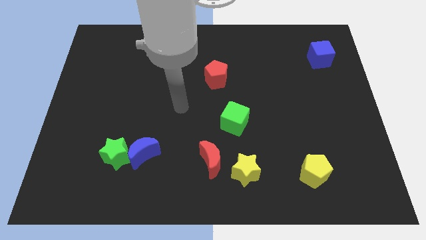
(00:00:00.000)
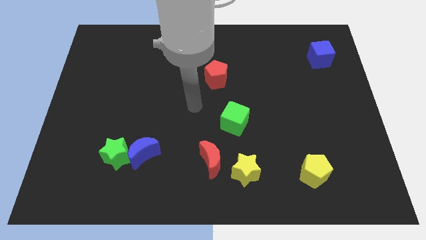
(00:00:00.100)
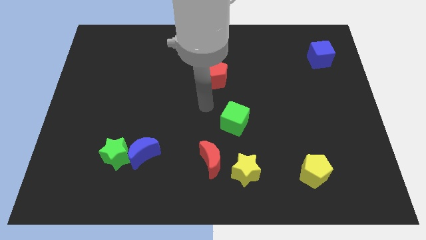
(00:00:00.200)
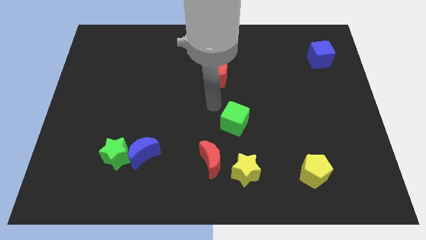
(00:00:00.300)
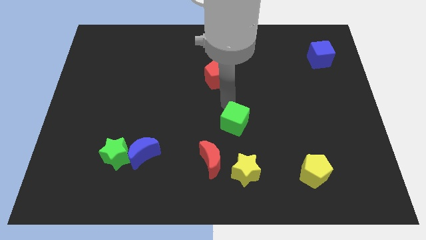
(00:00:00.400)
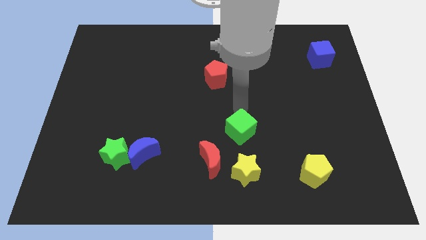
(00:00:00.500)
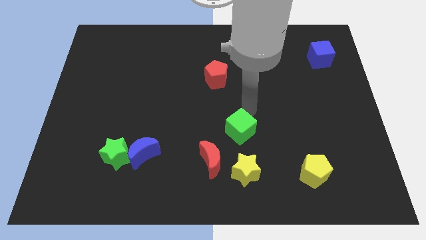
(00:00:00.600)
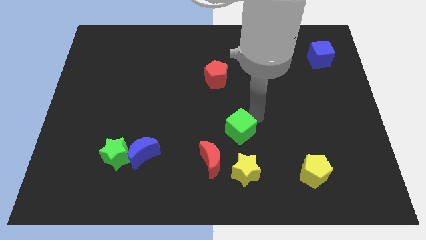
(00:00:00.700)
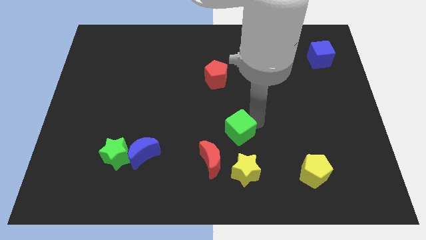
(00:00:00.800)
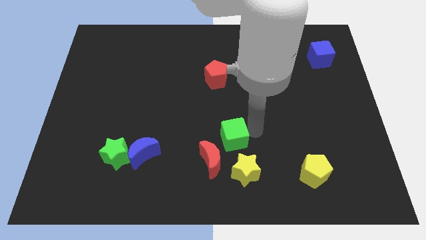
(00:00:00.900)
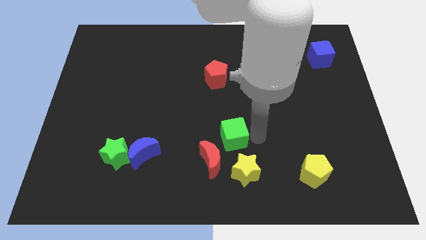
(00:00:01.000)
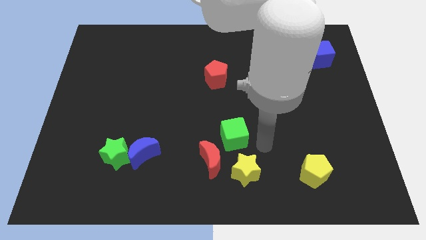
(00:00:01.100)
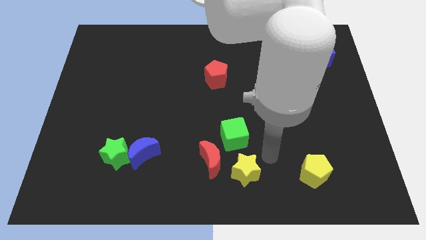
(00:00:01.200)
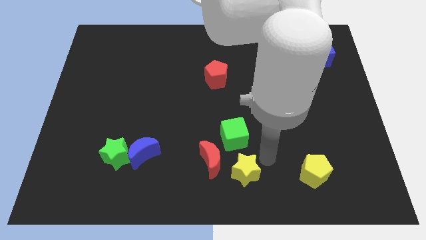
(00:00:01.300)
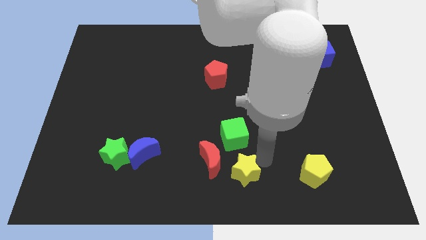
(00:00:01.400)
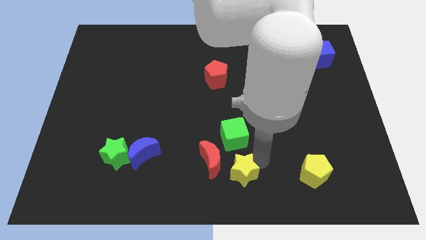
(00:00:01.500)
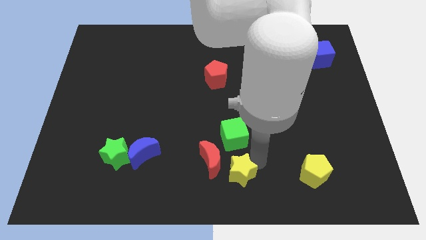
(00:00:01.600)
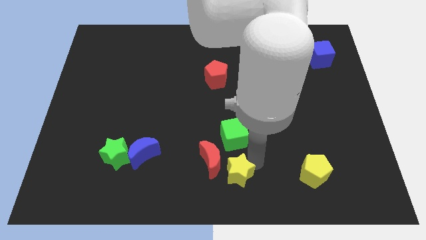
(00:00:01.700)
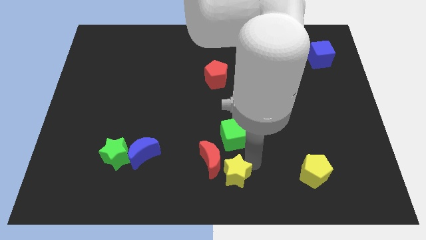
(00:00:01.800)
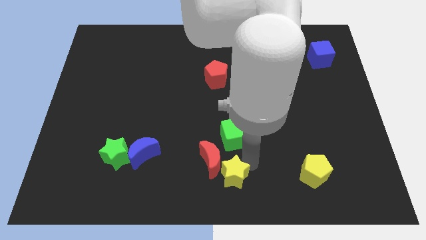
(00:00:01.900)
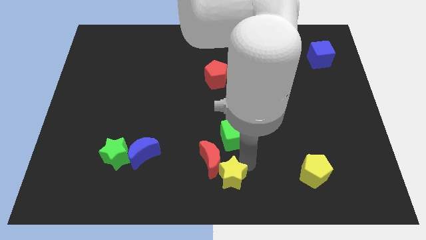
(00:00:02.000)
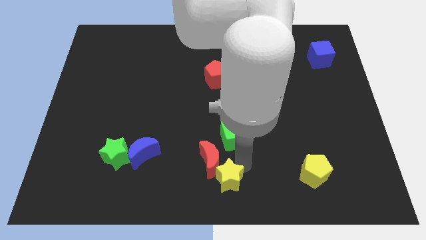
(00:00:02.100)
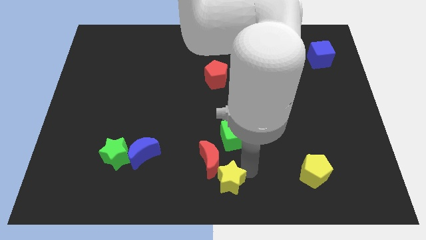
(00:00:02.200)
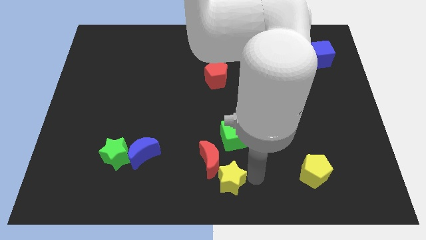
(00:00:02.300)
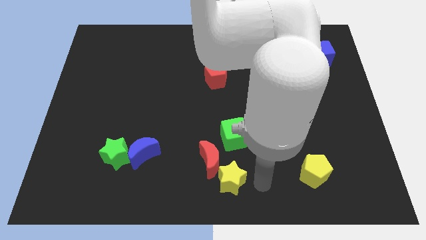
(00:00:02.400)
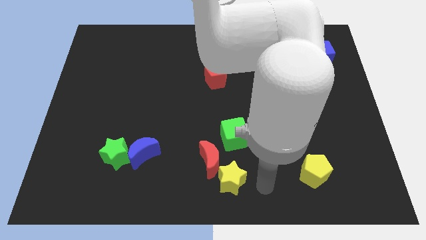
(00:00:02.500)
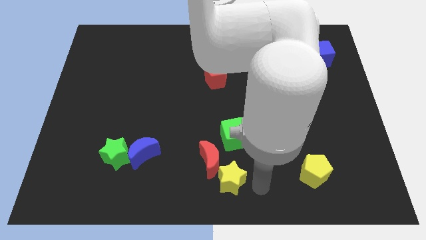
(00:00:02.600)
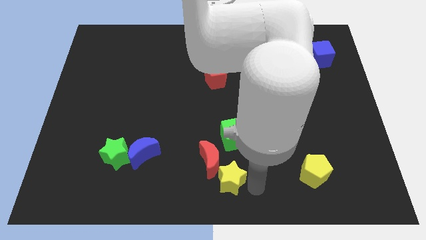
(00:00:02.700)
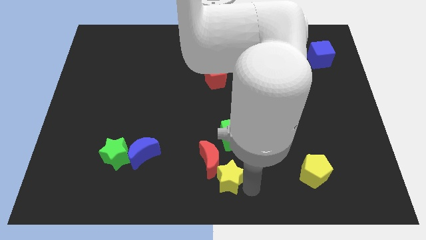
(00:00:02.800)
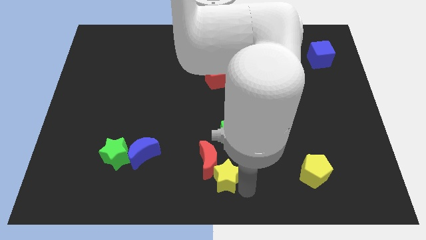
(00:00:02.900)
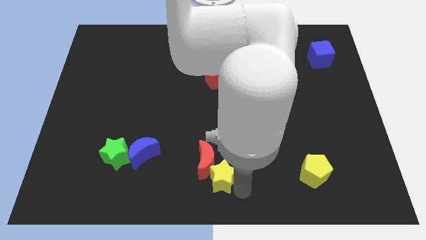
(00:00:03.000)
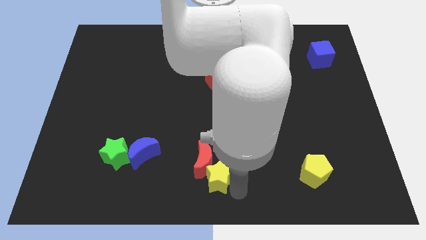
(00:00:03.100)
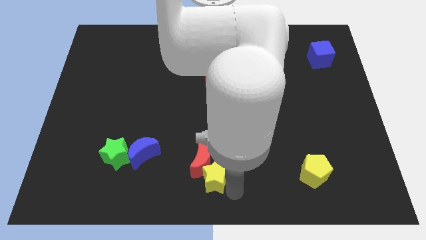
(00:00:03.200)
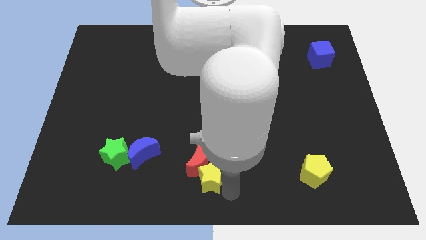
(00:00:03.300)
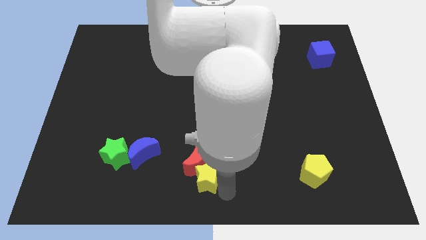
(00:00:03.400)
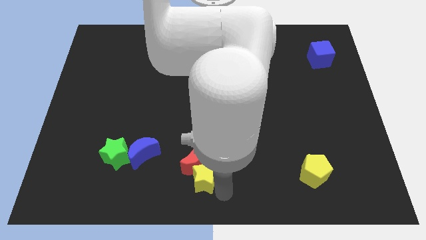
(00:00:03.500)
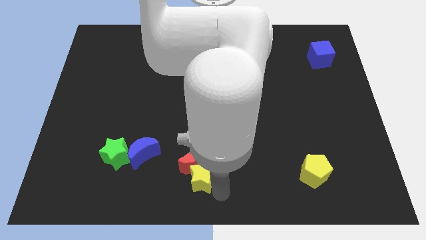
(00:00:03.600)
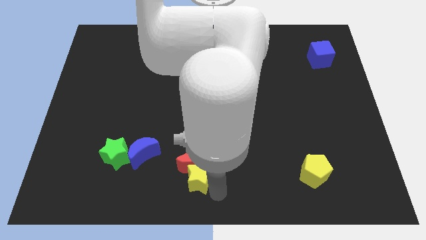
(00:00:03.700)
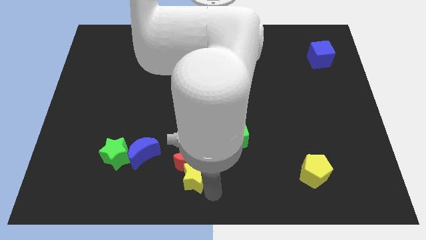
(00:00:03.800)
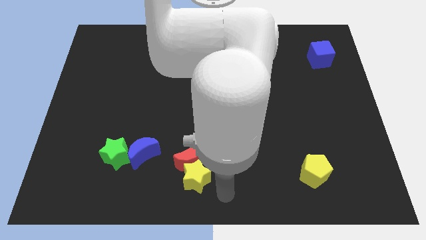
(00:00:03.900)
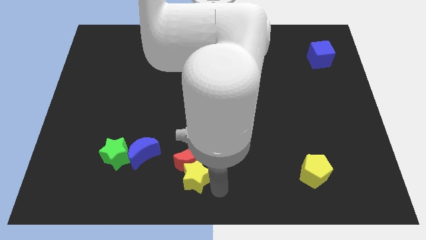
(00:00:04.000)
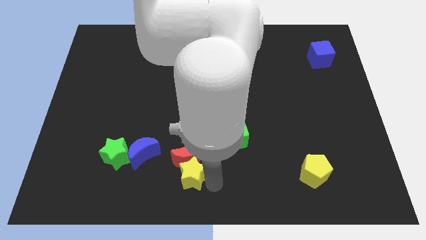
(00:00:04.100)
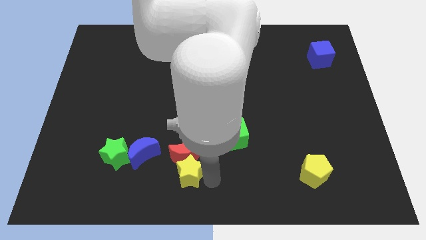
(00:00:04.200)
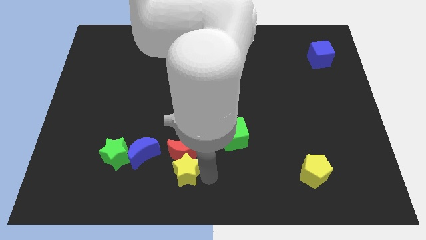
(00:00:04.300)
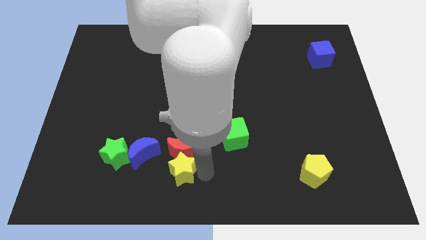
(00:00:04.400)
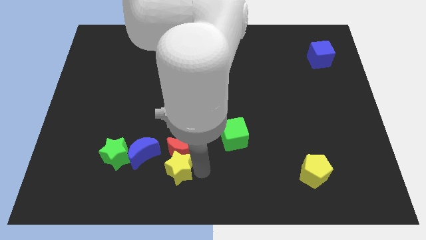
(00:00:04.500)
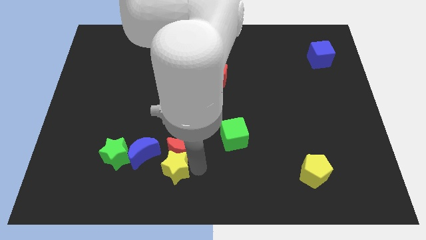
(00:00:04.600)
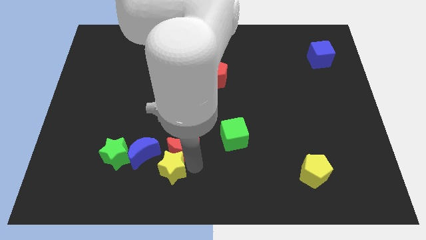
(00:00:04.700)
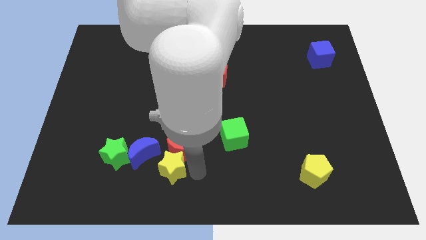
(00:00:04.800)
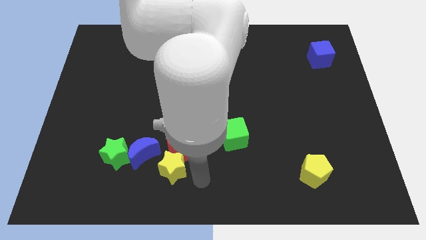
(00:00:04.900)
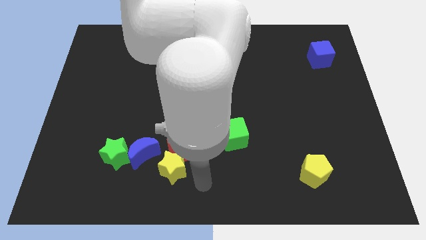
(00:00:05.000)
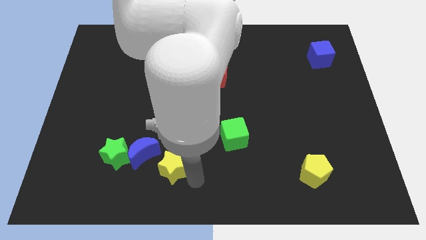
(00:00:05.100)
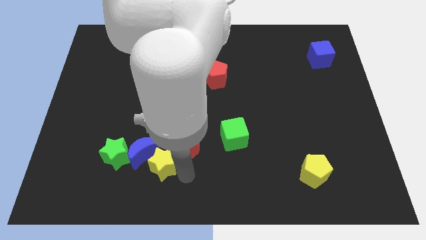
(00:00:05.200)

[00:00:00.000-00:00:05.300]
put the yellow star next to the blue moon

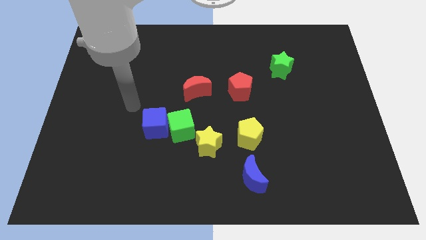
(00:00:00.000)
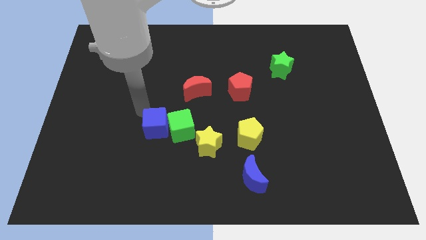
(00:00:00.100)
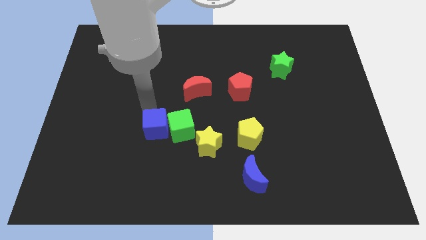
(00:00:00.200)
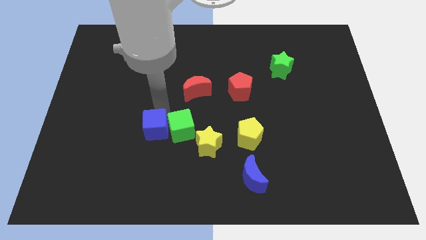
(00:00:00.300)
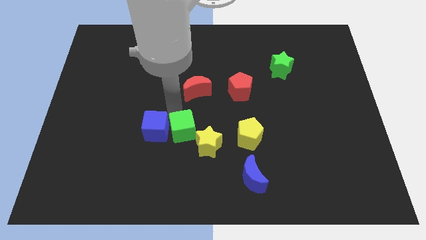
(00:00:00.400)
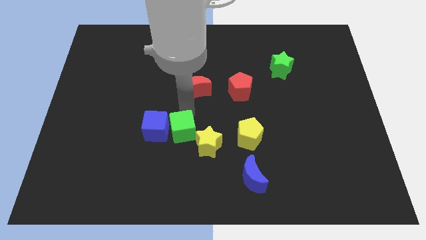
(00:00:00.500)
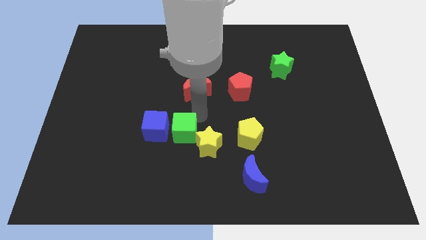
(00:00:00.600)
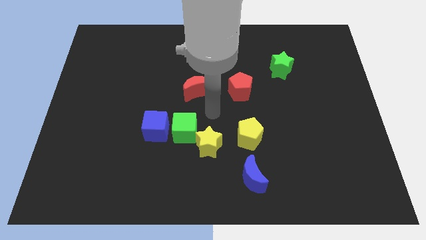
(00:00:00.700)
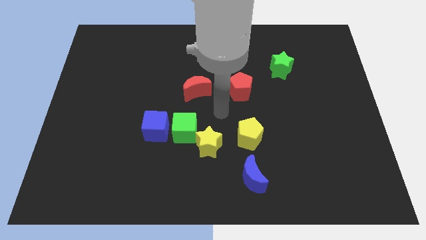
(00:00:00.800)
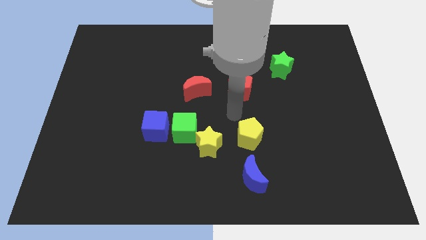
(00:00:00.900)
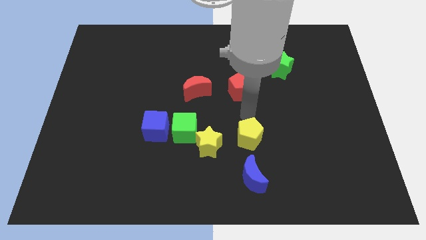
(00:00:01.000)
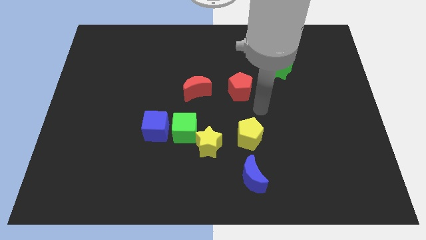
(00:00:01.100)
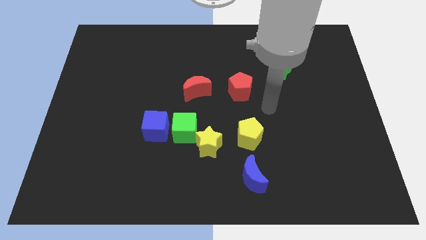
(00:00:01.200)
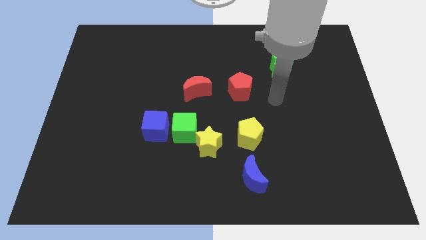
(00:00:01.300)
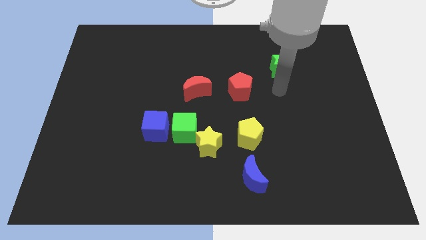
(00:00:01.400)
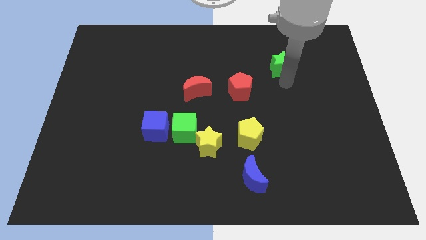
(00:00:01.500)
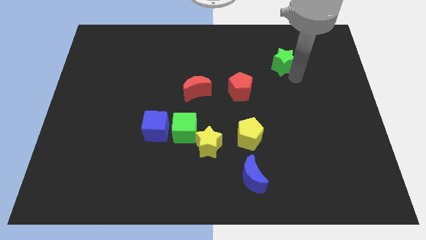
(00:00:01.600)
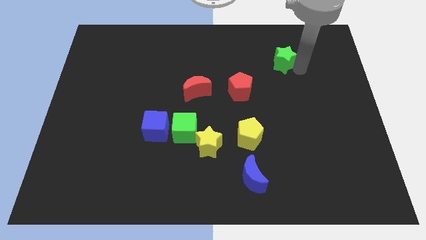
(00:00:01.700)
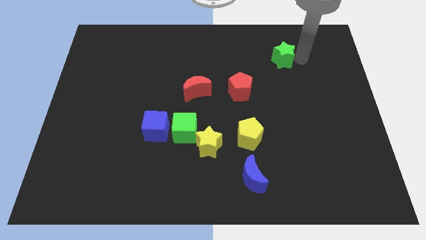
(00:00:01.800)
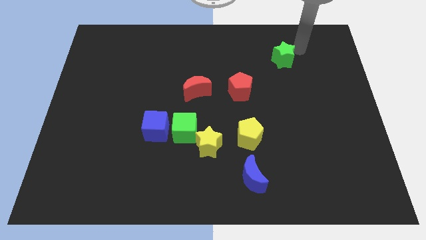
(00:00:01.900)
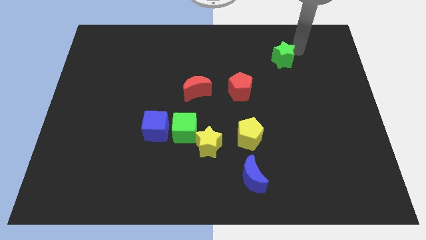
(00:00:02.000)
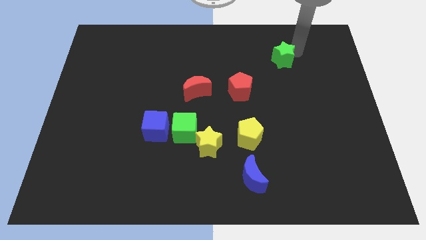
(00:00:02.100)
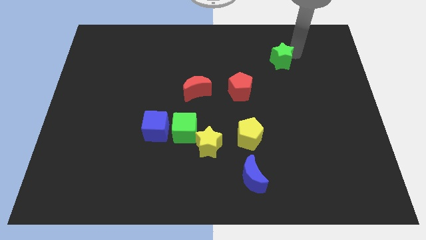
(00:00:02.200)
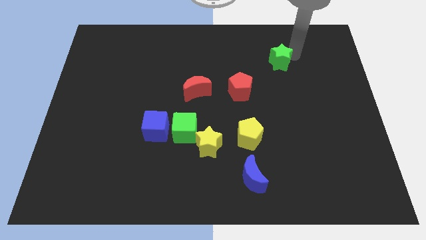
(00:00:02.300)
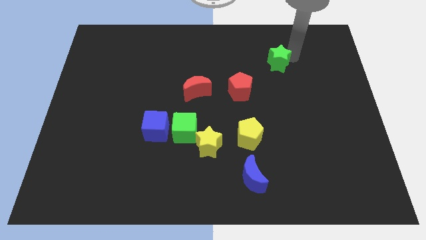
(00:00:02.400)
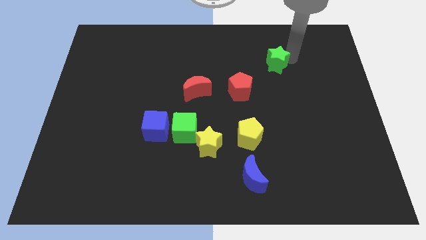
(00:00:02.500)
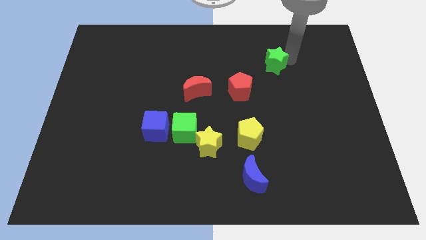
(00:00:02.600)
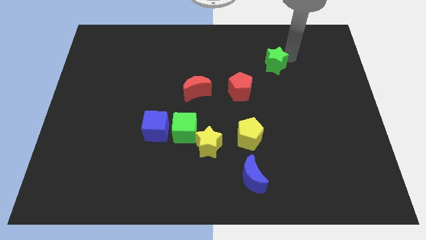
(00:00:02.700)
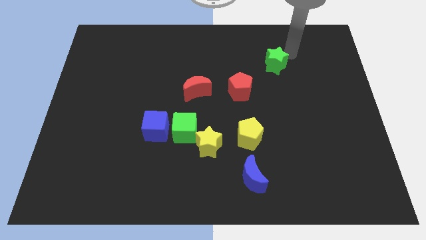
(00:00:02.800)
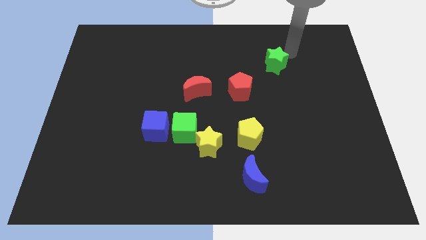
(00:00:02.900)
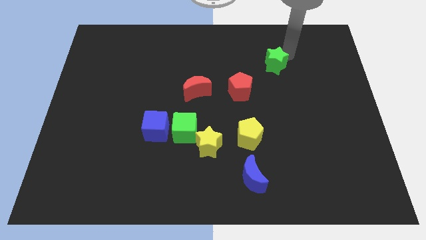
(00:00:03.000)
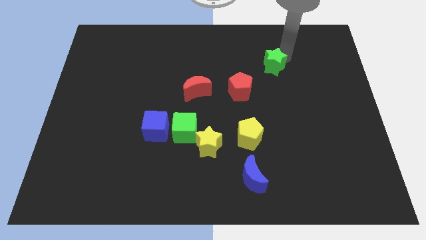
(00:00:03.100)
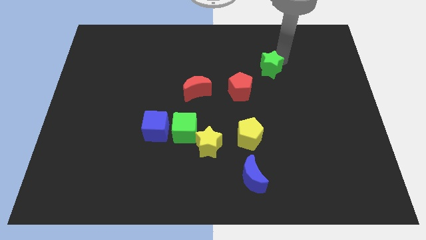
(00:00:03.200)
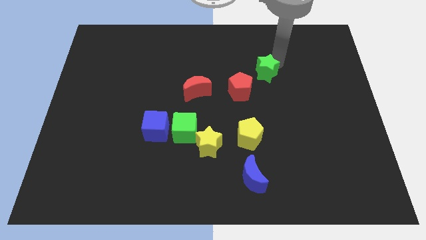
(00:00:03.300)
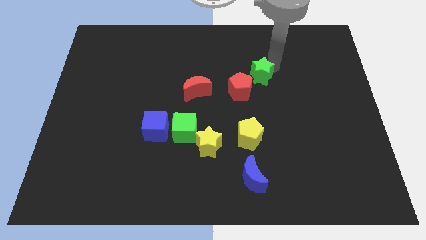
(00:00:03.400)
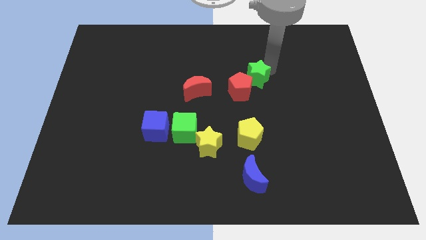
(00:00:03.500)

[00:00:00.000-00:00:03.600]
push the green star close to the red pentagon
